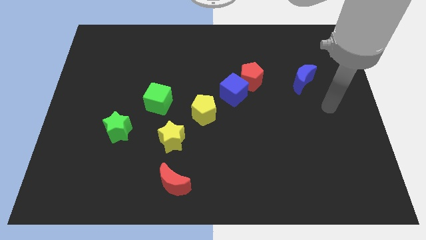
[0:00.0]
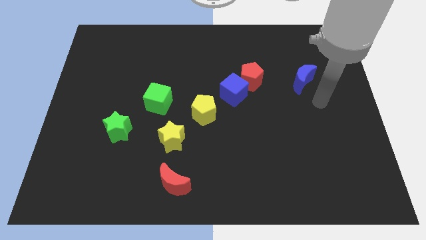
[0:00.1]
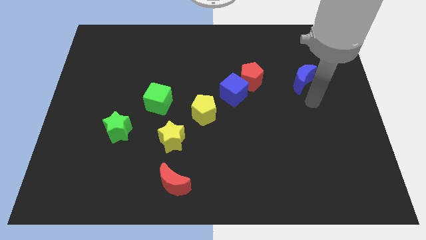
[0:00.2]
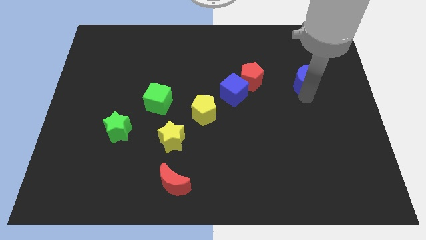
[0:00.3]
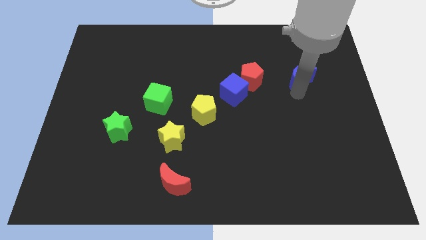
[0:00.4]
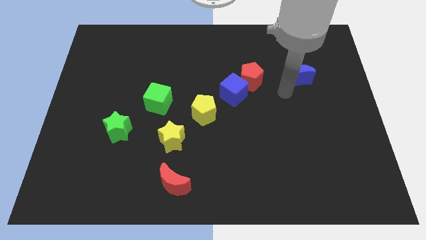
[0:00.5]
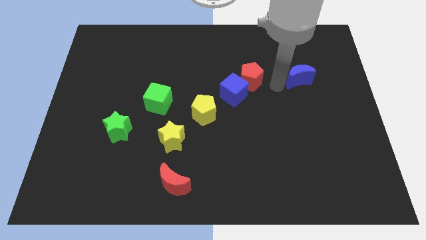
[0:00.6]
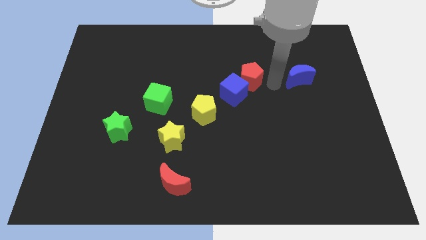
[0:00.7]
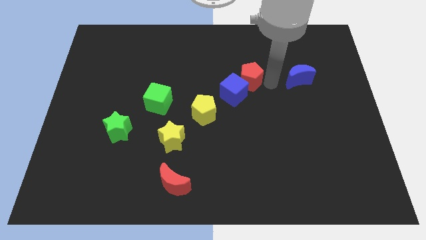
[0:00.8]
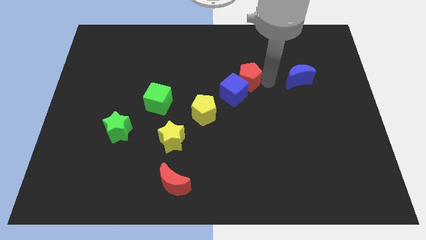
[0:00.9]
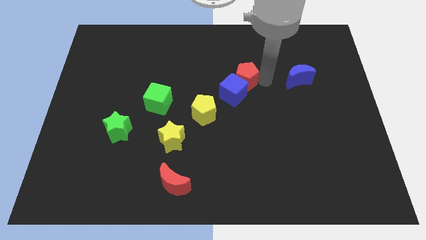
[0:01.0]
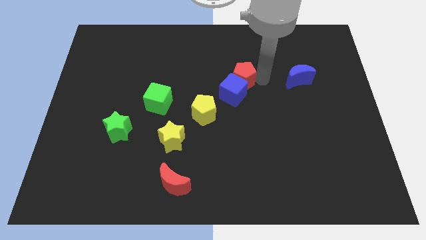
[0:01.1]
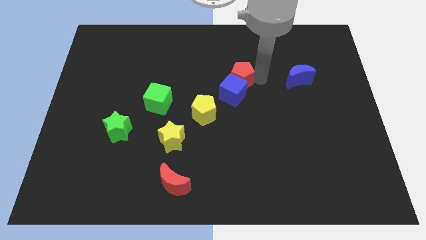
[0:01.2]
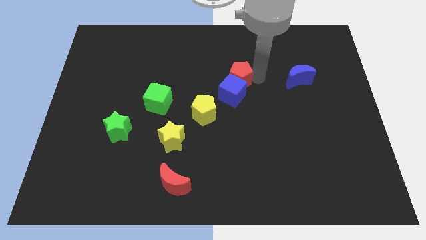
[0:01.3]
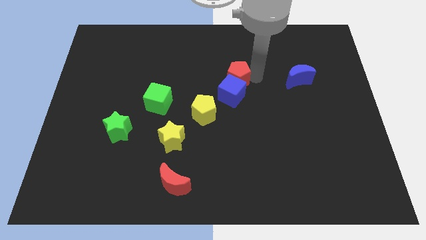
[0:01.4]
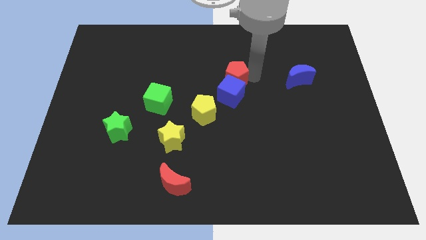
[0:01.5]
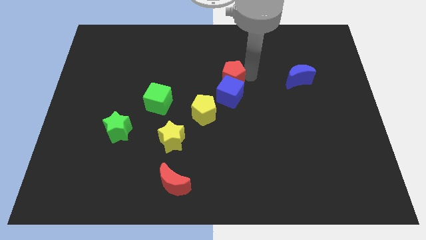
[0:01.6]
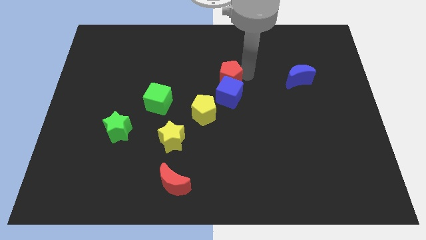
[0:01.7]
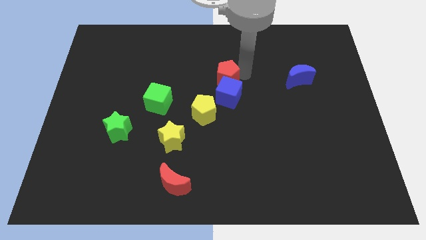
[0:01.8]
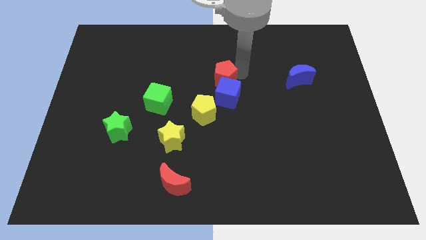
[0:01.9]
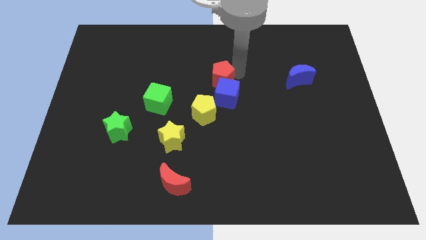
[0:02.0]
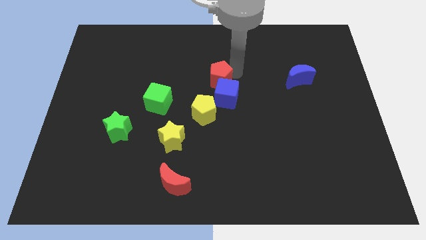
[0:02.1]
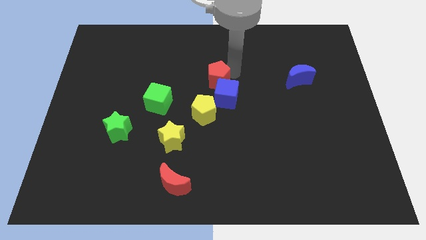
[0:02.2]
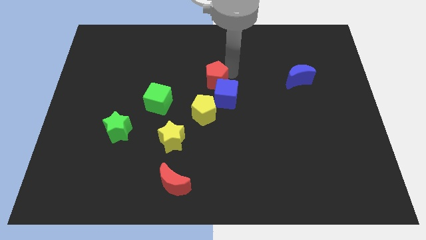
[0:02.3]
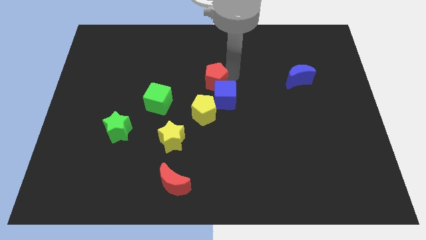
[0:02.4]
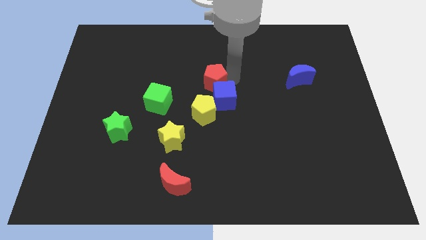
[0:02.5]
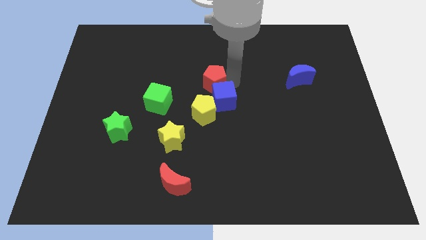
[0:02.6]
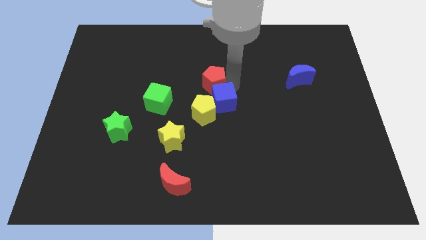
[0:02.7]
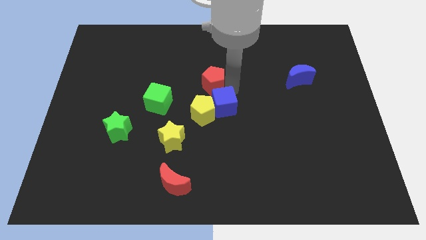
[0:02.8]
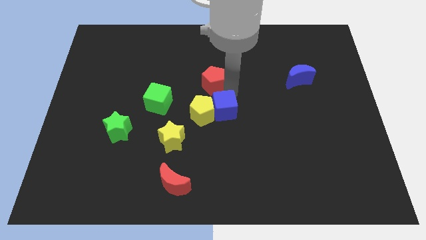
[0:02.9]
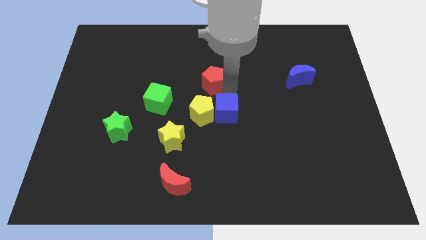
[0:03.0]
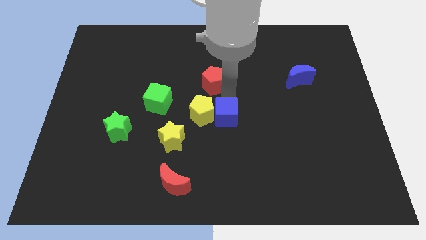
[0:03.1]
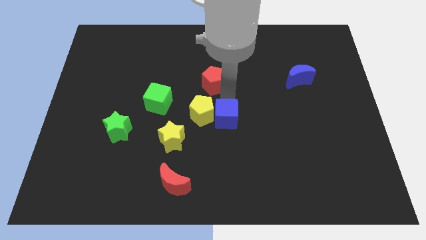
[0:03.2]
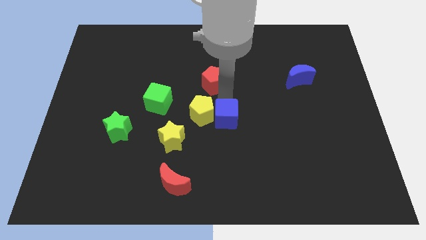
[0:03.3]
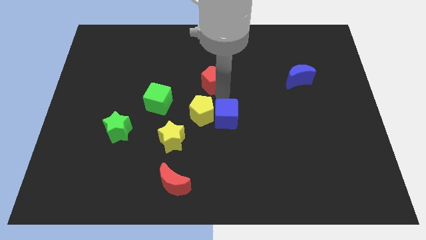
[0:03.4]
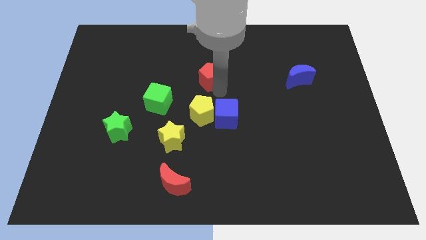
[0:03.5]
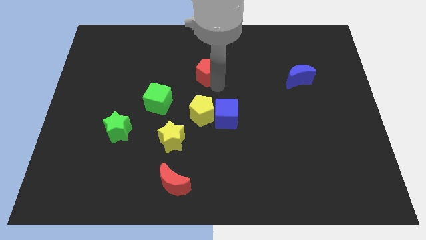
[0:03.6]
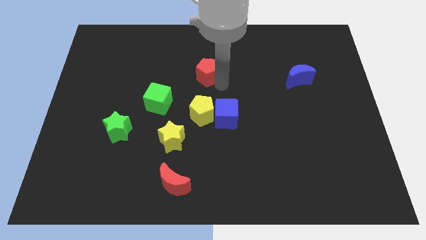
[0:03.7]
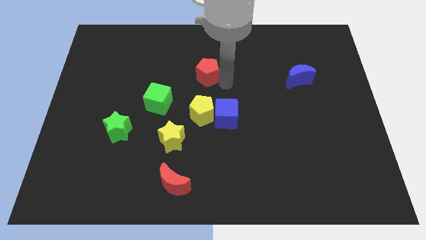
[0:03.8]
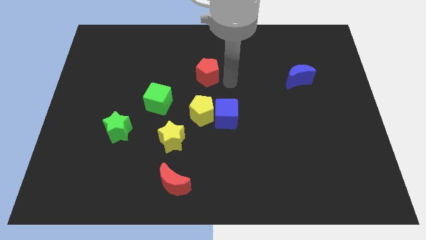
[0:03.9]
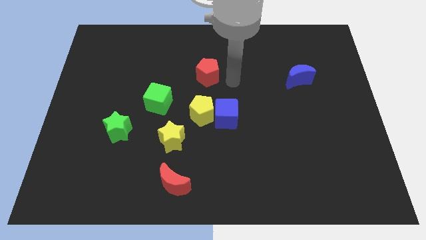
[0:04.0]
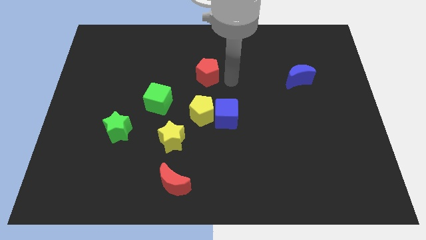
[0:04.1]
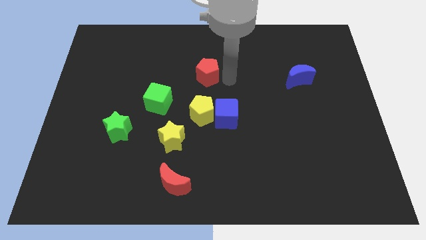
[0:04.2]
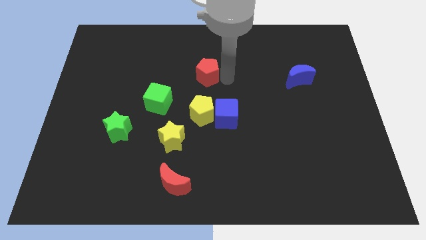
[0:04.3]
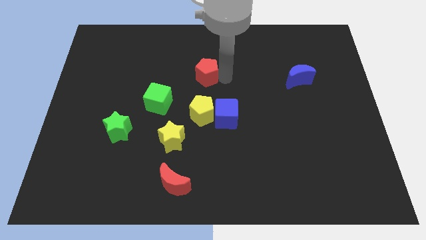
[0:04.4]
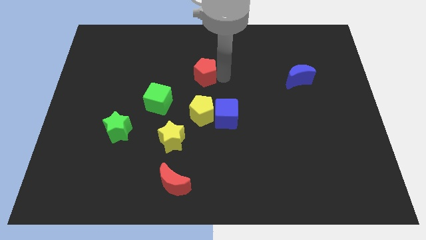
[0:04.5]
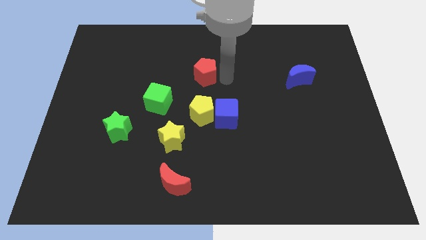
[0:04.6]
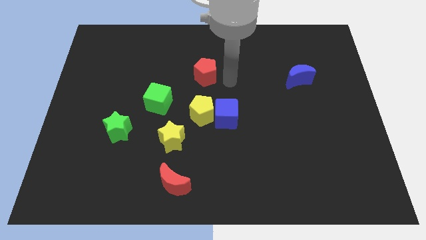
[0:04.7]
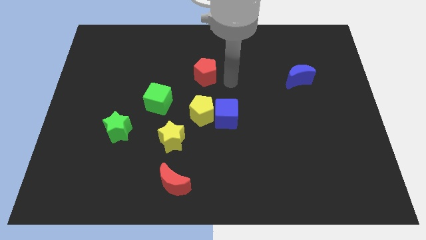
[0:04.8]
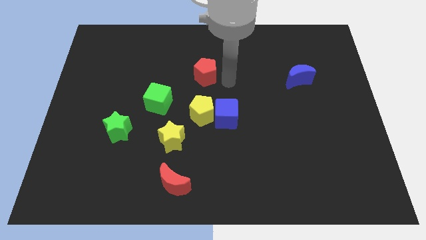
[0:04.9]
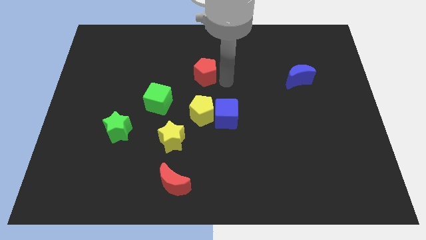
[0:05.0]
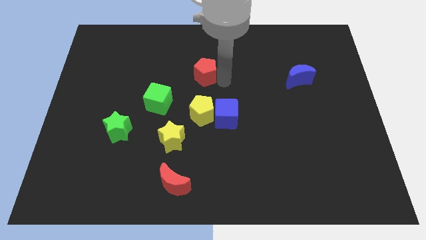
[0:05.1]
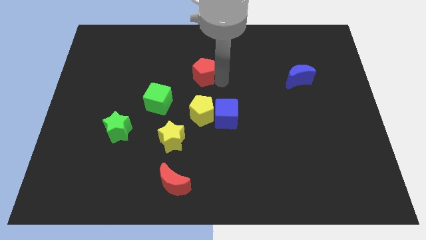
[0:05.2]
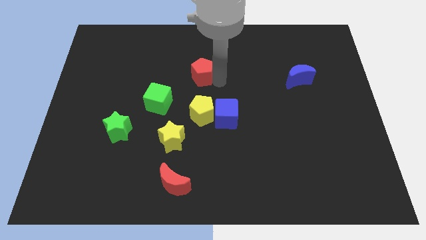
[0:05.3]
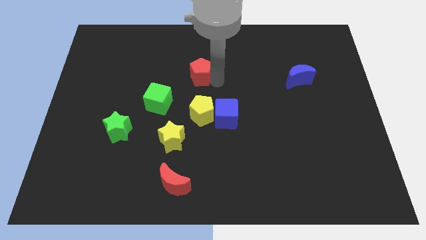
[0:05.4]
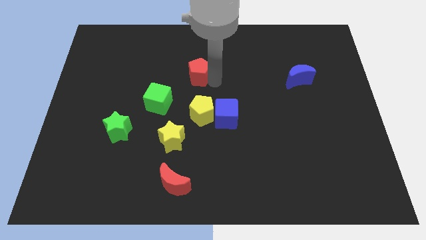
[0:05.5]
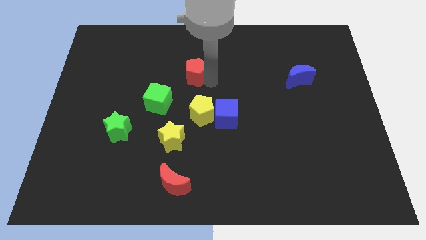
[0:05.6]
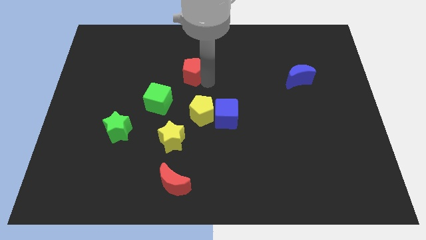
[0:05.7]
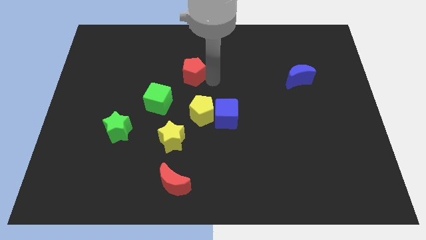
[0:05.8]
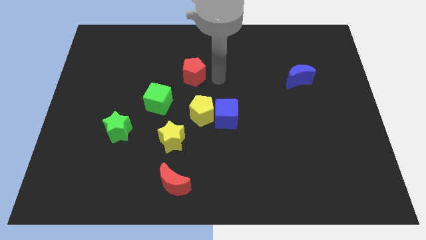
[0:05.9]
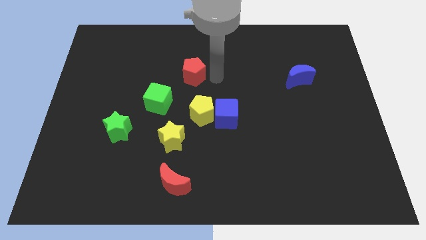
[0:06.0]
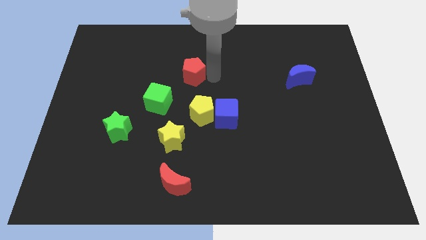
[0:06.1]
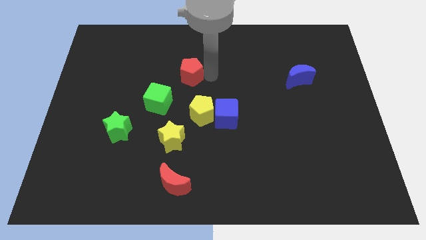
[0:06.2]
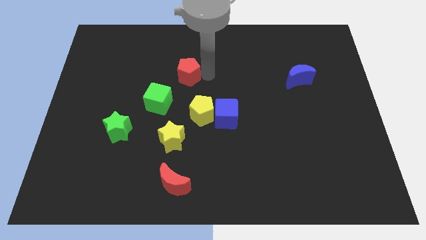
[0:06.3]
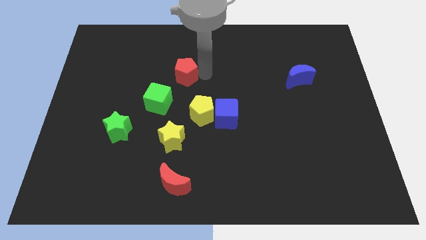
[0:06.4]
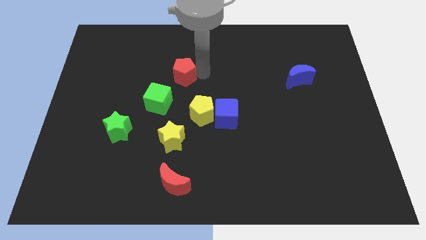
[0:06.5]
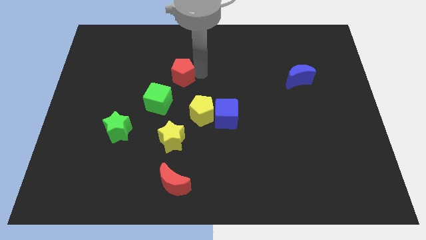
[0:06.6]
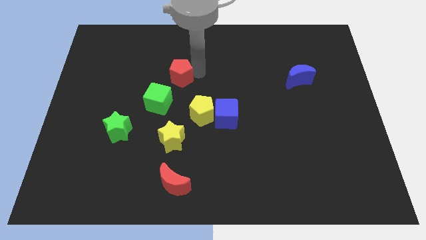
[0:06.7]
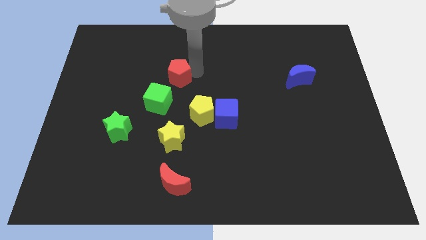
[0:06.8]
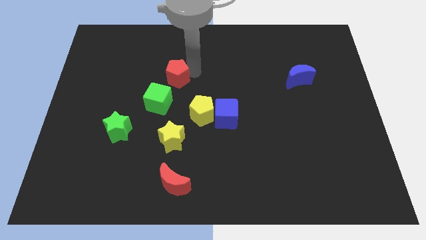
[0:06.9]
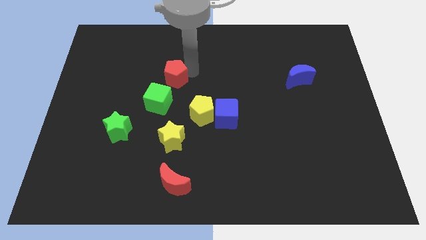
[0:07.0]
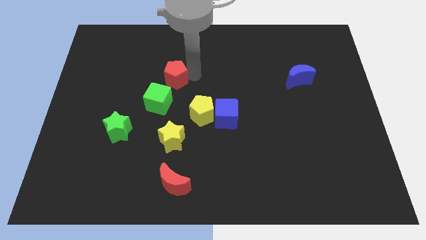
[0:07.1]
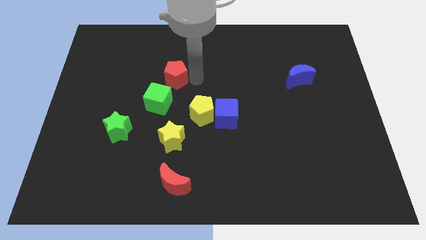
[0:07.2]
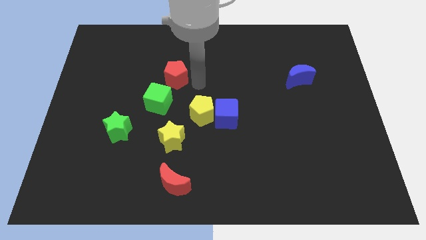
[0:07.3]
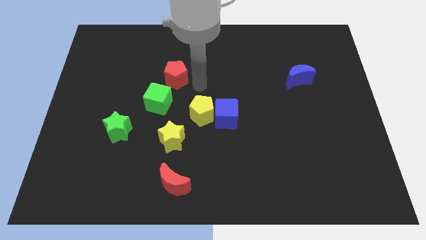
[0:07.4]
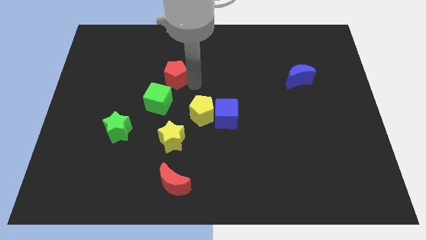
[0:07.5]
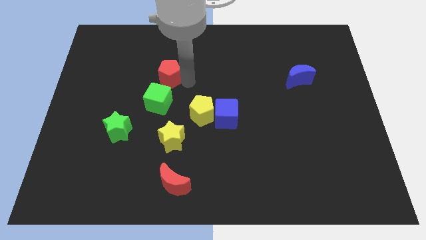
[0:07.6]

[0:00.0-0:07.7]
push the red pentagon to the left

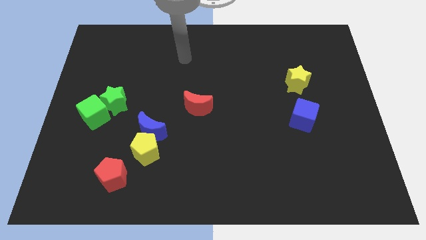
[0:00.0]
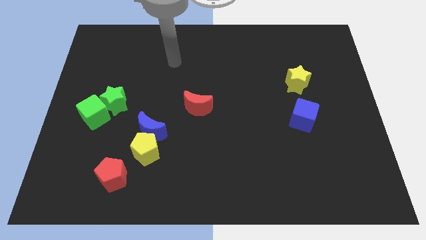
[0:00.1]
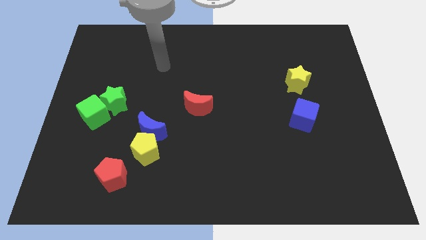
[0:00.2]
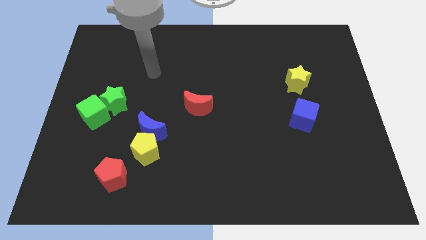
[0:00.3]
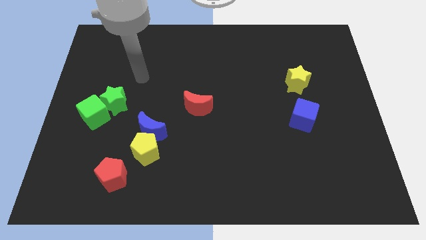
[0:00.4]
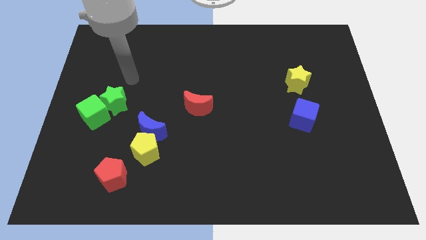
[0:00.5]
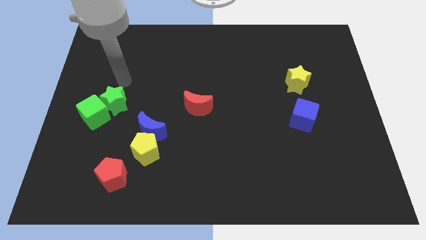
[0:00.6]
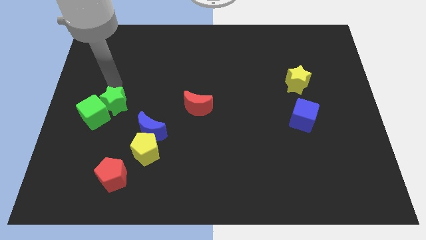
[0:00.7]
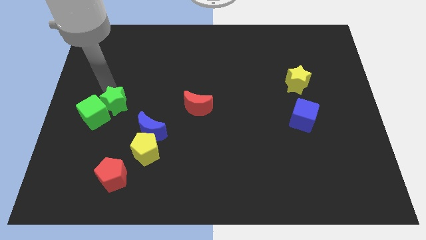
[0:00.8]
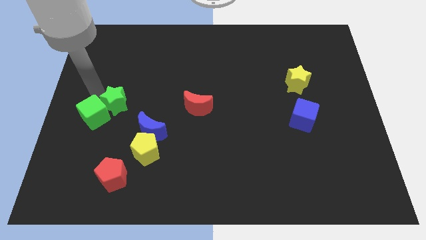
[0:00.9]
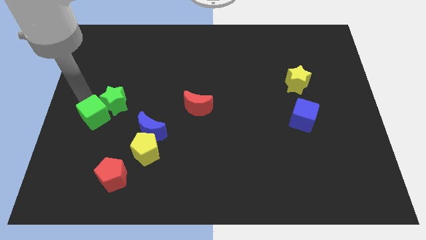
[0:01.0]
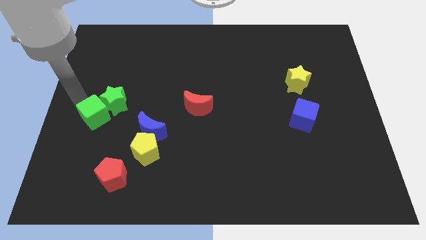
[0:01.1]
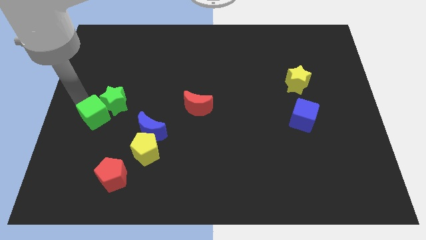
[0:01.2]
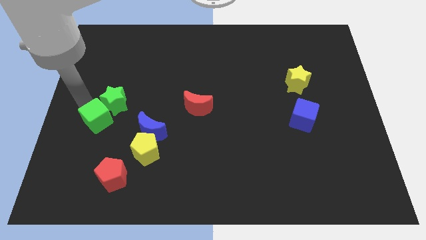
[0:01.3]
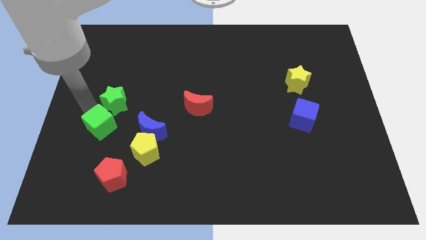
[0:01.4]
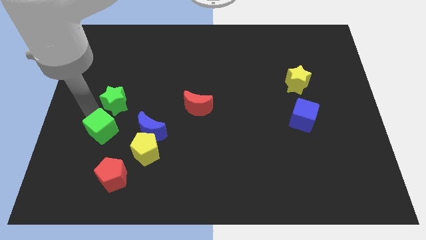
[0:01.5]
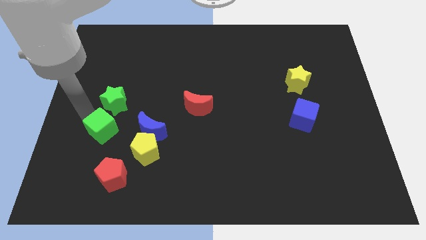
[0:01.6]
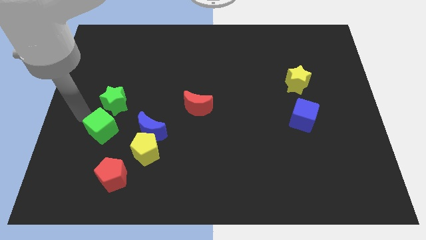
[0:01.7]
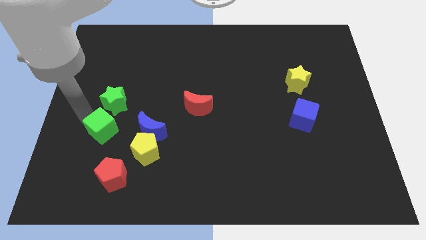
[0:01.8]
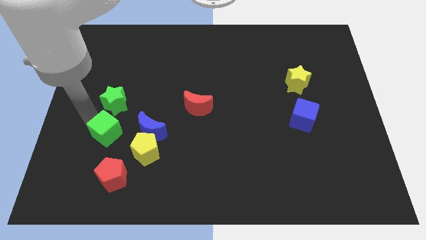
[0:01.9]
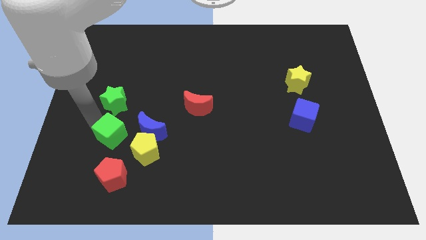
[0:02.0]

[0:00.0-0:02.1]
slightly slide the green cube down and to the right diagonally
